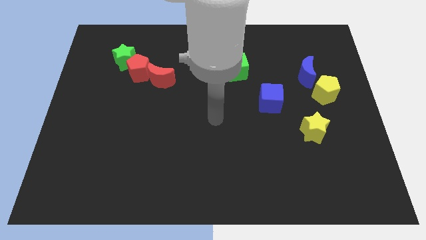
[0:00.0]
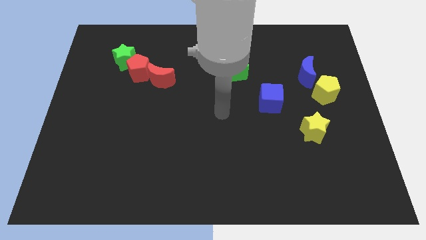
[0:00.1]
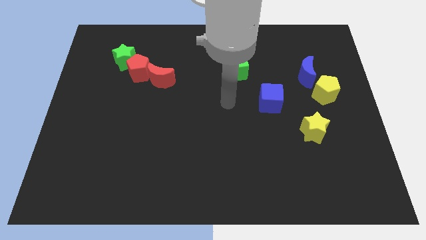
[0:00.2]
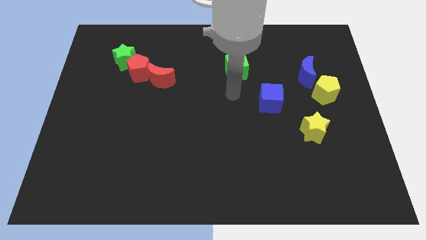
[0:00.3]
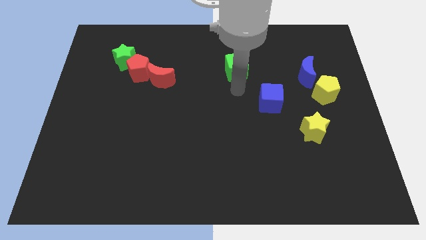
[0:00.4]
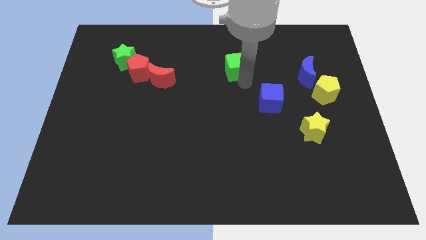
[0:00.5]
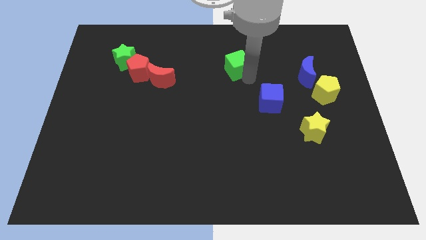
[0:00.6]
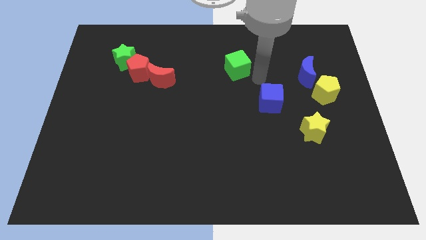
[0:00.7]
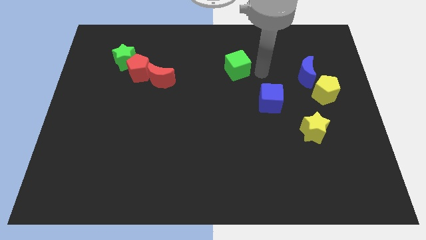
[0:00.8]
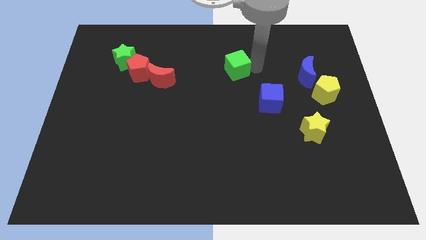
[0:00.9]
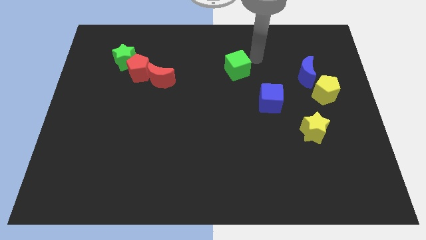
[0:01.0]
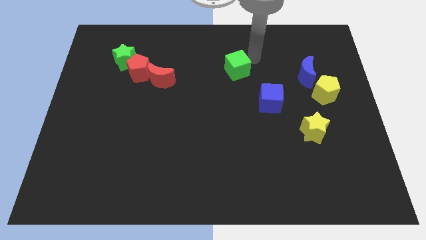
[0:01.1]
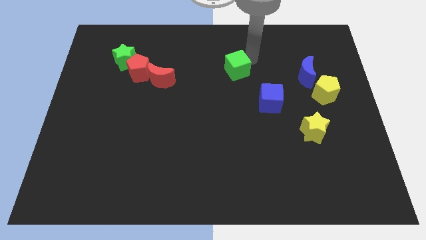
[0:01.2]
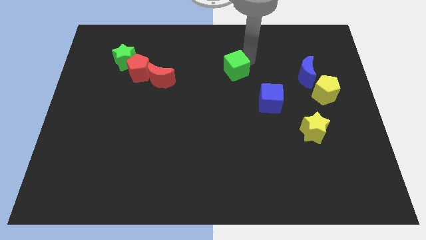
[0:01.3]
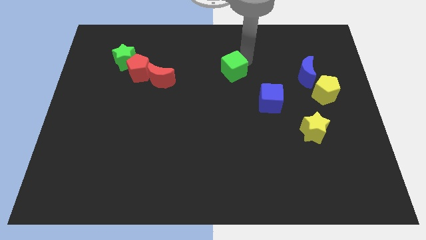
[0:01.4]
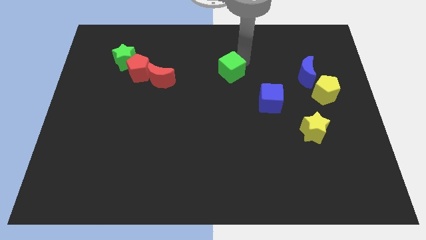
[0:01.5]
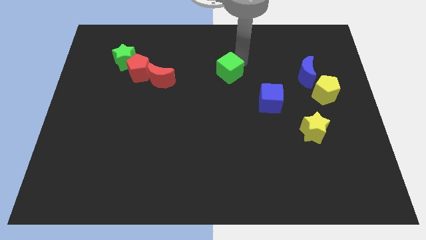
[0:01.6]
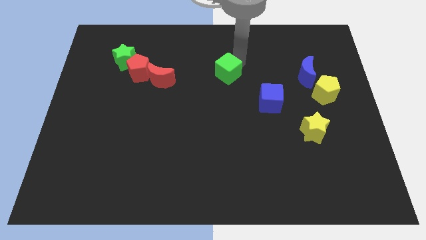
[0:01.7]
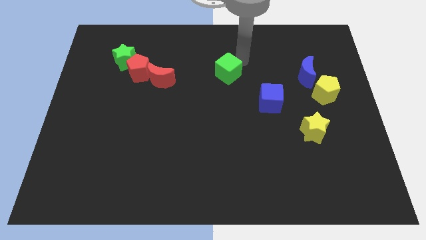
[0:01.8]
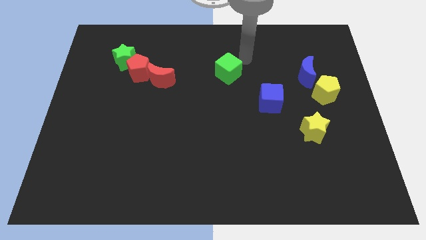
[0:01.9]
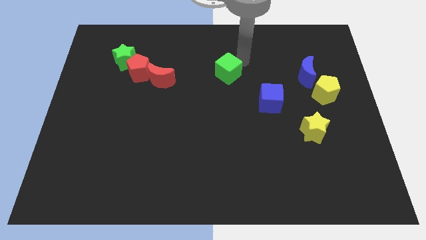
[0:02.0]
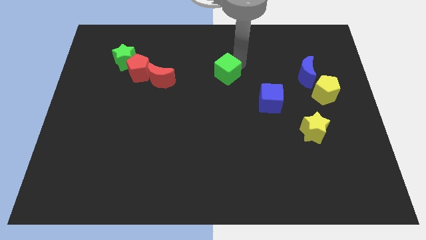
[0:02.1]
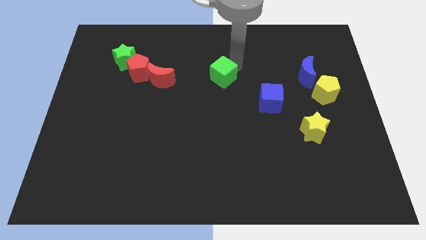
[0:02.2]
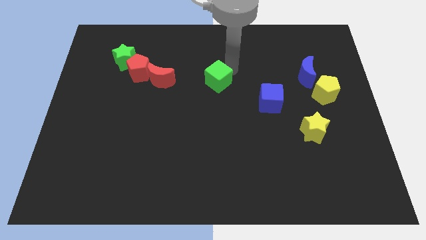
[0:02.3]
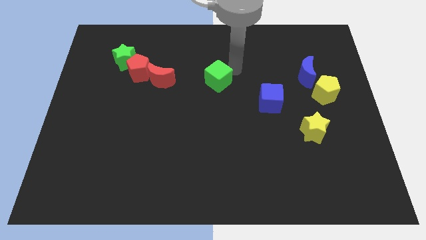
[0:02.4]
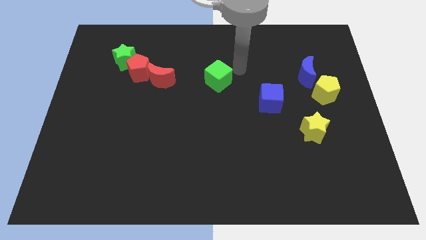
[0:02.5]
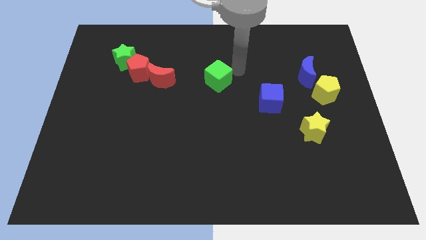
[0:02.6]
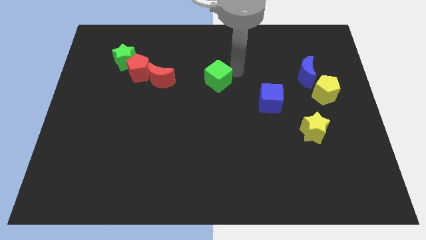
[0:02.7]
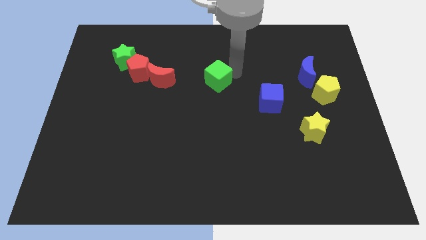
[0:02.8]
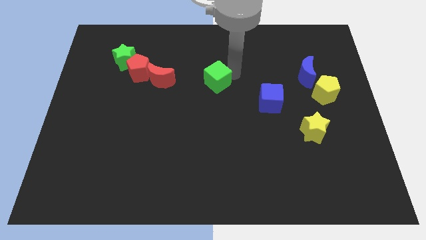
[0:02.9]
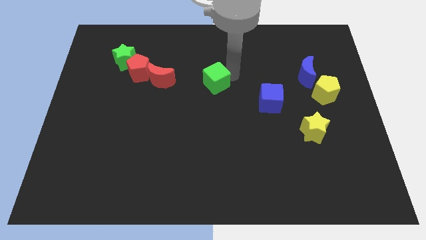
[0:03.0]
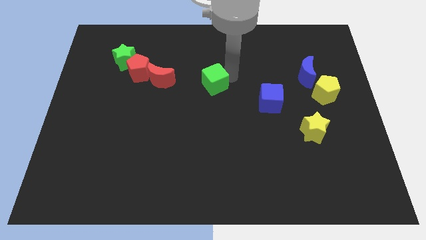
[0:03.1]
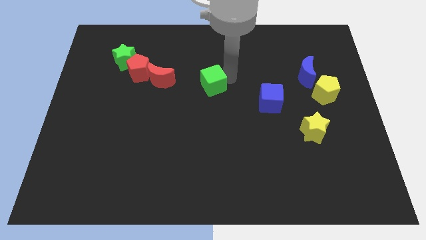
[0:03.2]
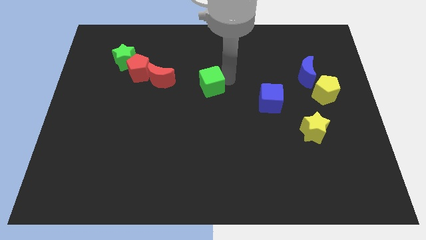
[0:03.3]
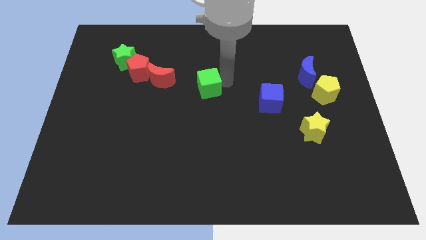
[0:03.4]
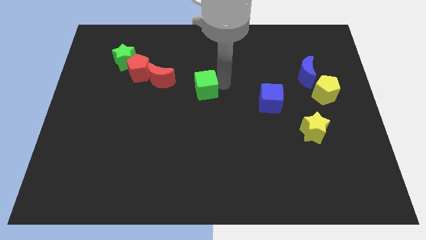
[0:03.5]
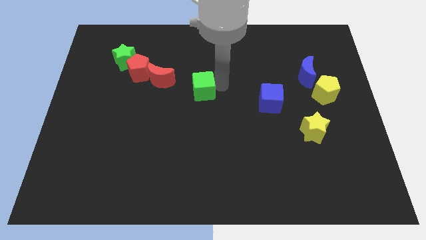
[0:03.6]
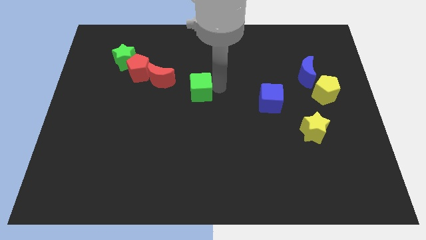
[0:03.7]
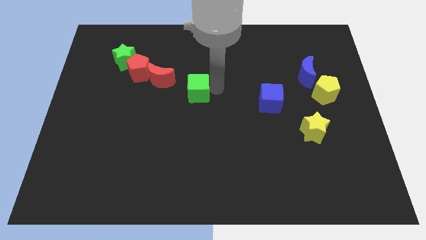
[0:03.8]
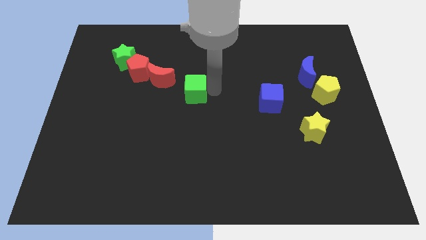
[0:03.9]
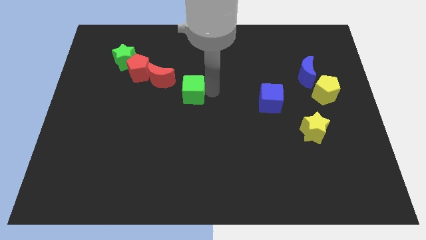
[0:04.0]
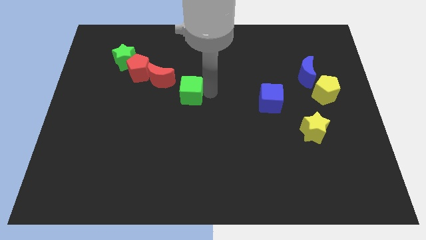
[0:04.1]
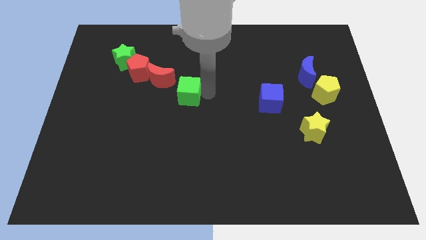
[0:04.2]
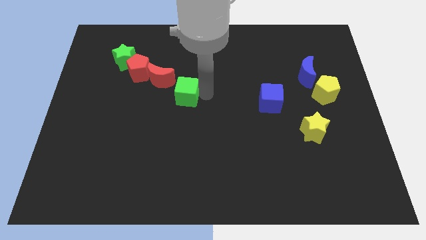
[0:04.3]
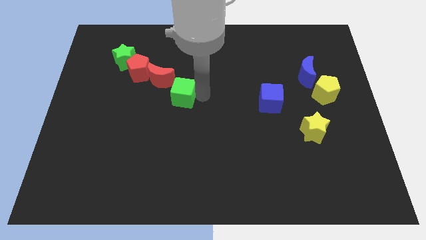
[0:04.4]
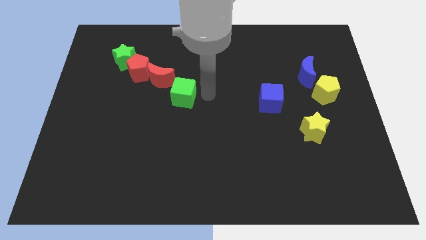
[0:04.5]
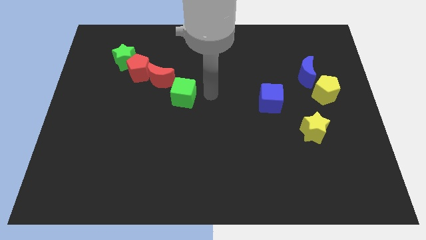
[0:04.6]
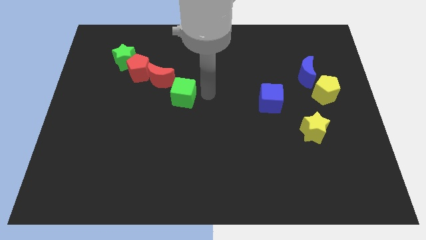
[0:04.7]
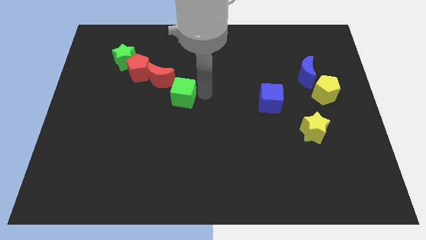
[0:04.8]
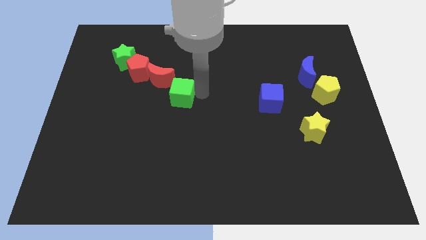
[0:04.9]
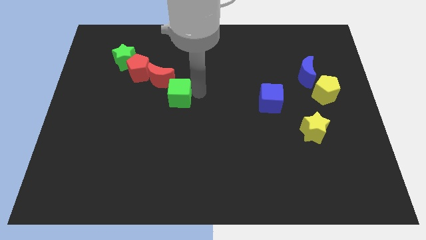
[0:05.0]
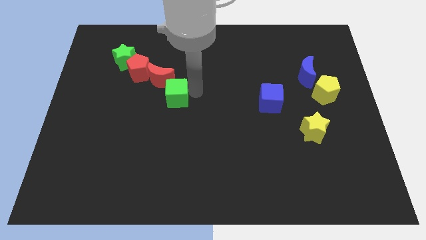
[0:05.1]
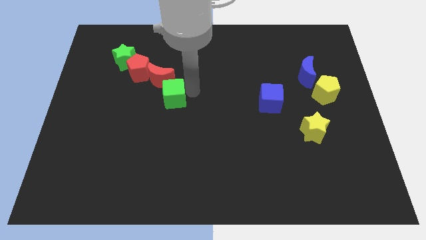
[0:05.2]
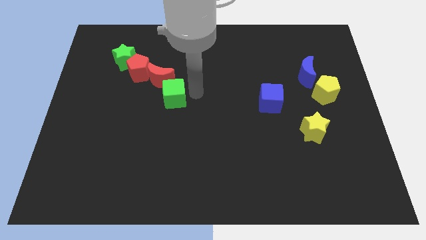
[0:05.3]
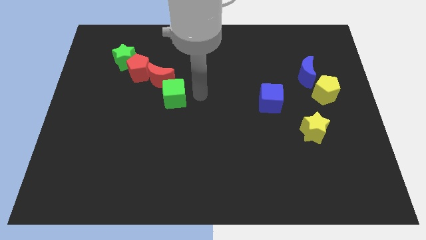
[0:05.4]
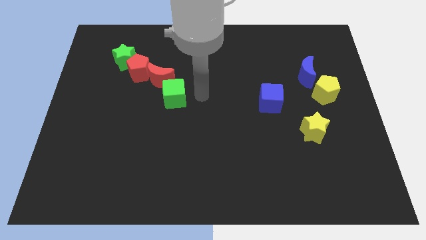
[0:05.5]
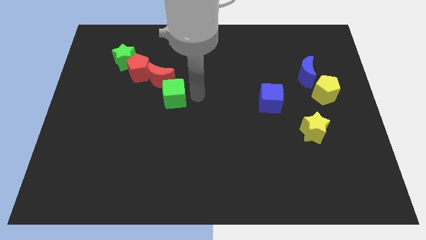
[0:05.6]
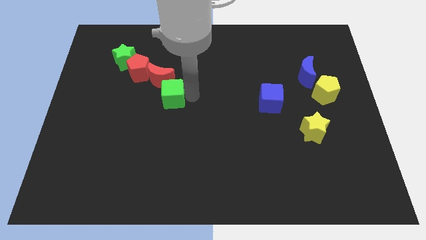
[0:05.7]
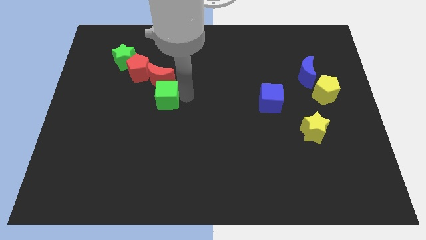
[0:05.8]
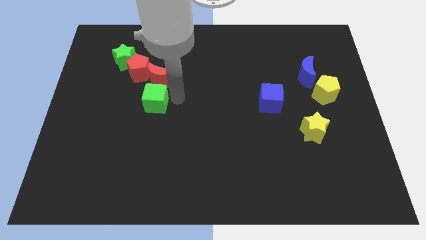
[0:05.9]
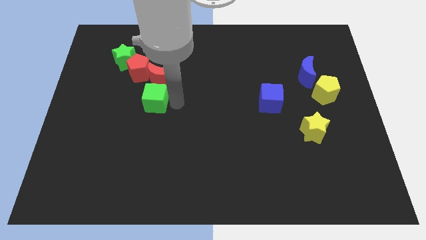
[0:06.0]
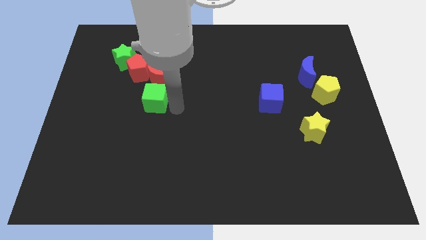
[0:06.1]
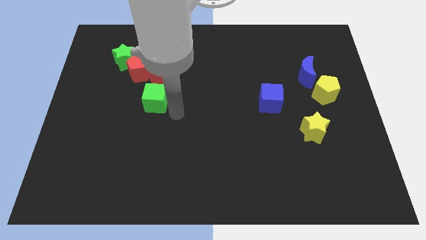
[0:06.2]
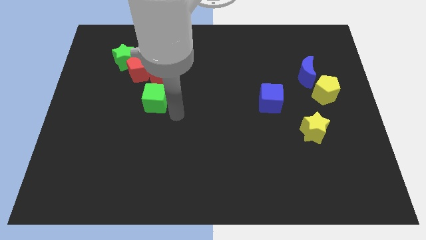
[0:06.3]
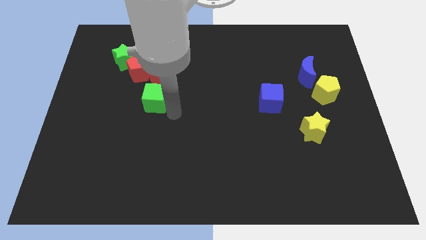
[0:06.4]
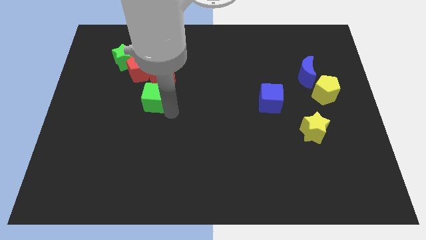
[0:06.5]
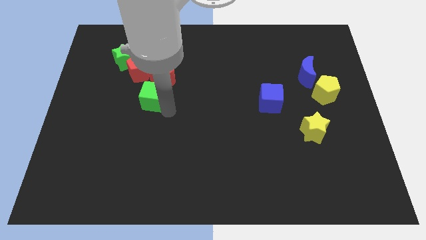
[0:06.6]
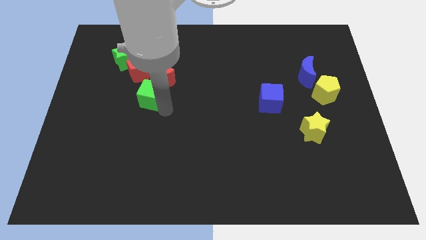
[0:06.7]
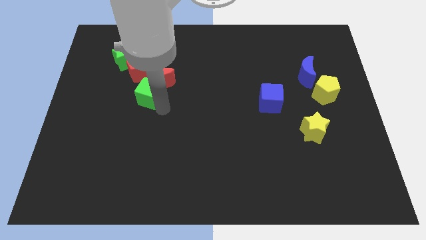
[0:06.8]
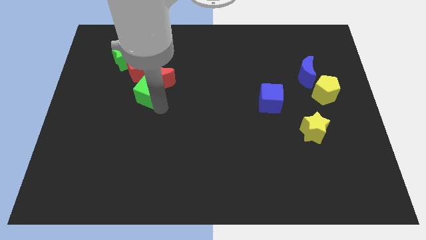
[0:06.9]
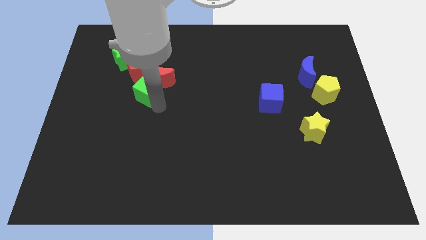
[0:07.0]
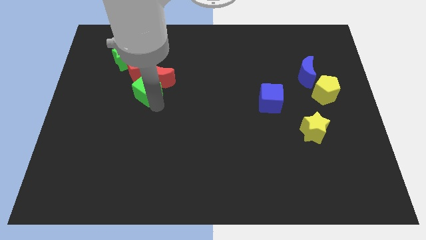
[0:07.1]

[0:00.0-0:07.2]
put the green cube to the left of the red moon

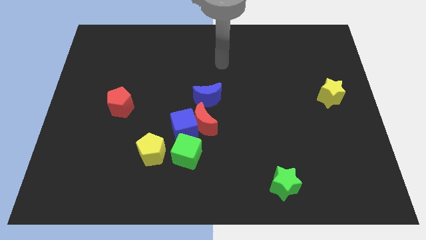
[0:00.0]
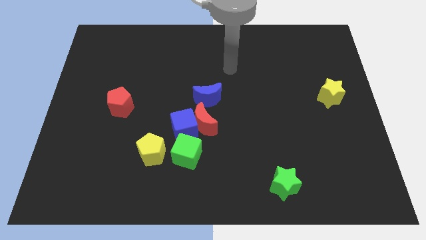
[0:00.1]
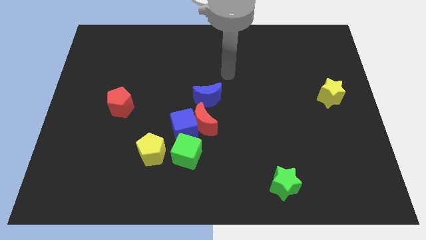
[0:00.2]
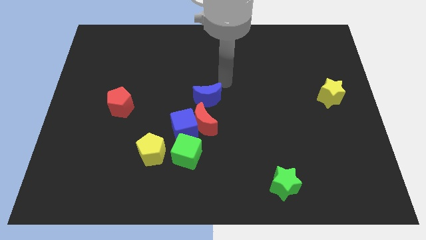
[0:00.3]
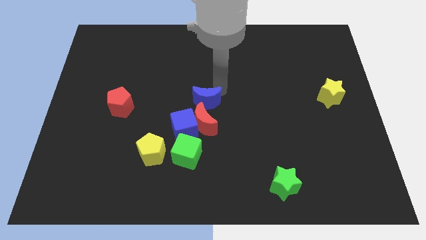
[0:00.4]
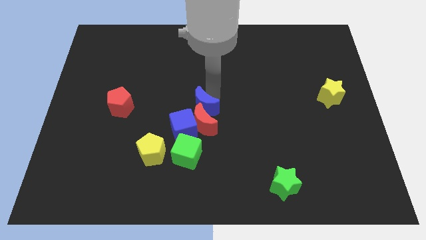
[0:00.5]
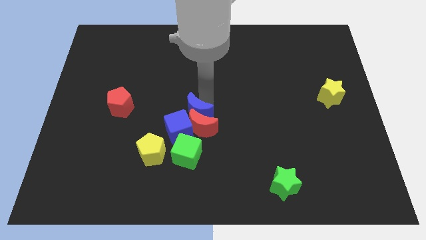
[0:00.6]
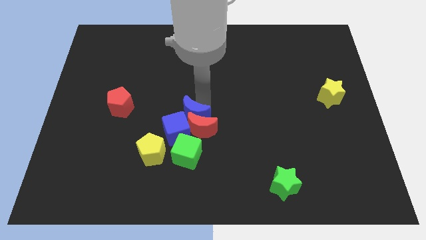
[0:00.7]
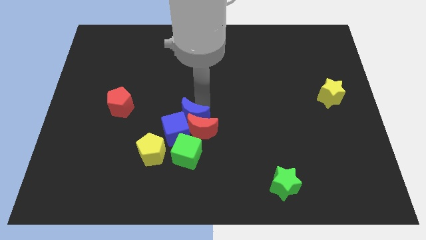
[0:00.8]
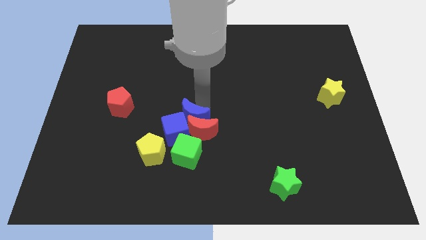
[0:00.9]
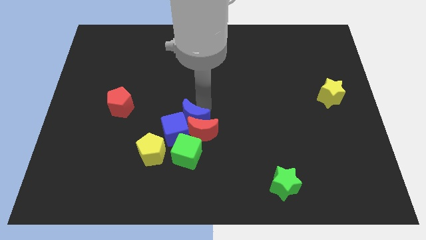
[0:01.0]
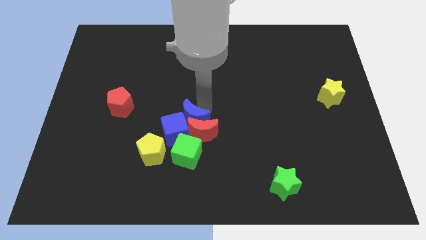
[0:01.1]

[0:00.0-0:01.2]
put the red moon to the right of the yellow pentagon
